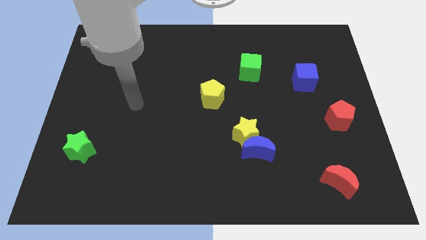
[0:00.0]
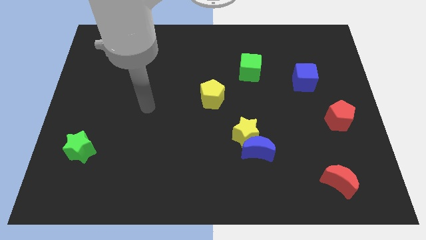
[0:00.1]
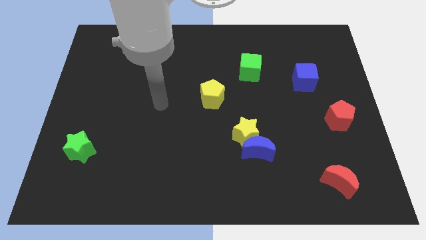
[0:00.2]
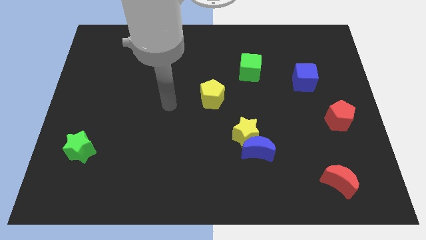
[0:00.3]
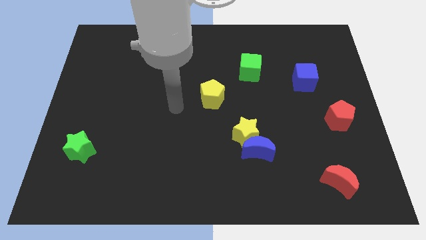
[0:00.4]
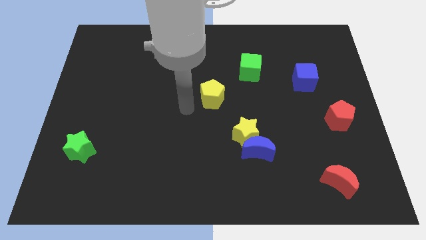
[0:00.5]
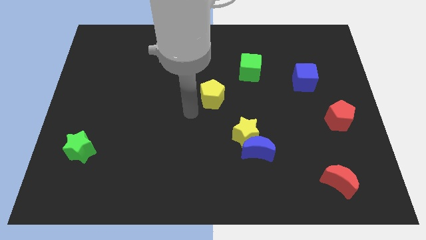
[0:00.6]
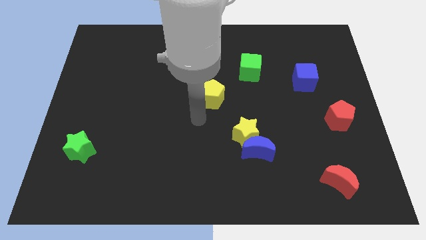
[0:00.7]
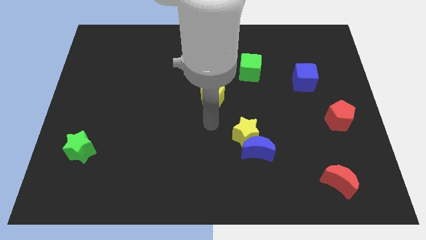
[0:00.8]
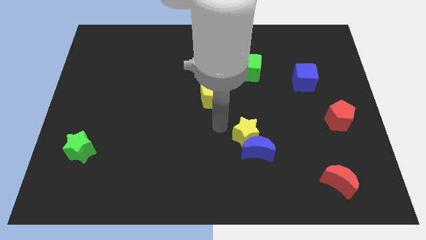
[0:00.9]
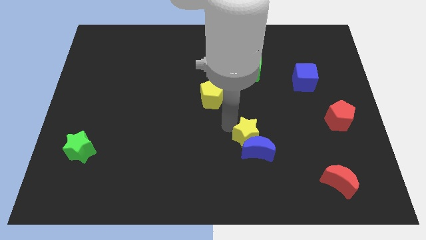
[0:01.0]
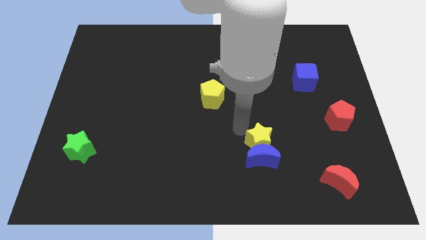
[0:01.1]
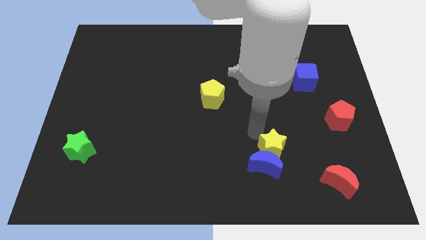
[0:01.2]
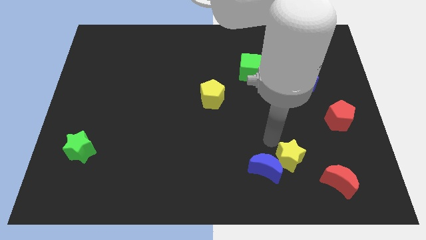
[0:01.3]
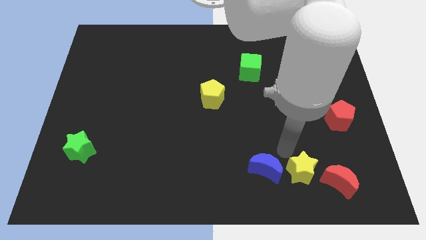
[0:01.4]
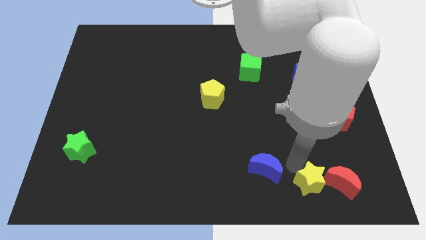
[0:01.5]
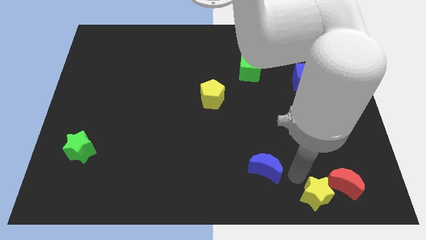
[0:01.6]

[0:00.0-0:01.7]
move the blue moon away from the yellow star

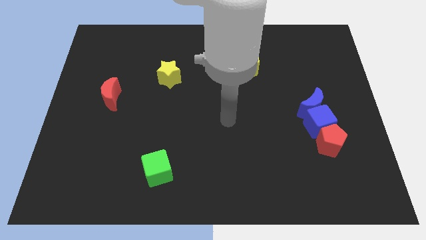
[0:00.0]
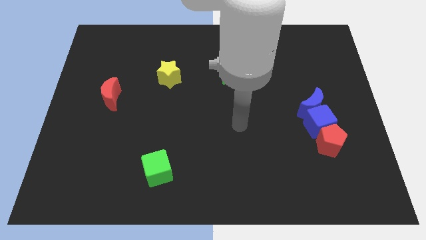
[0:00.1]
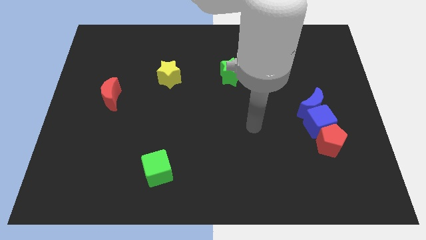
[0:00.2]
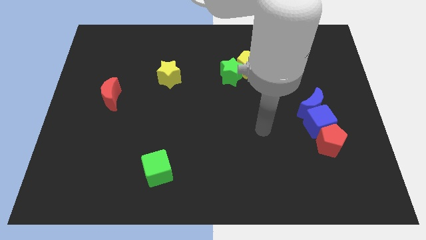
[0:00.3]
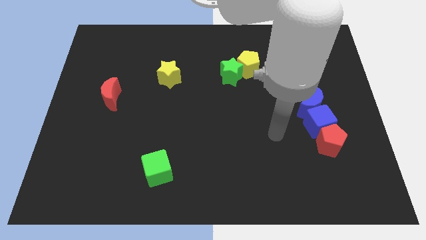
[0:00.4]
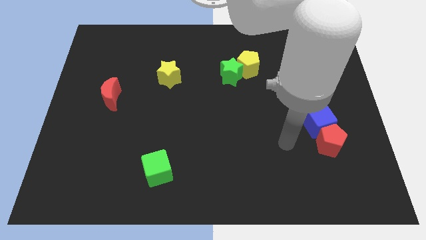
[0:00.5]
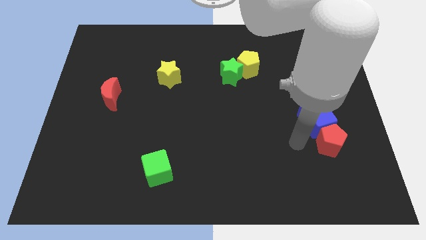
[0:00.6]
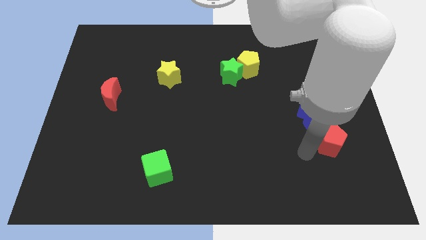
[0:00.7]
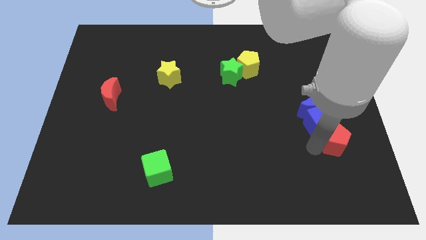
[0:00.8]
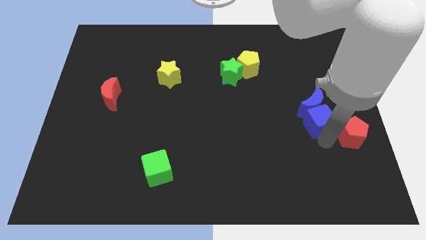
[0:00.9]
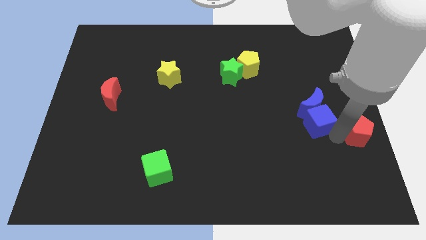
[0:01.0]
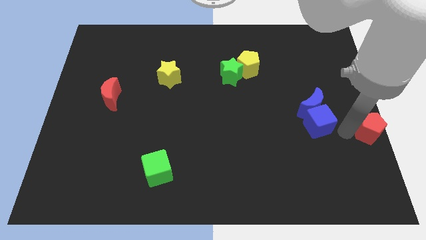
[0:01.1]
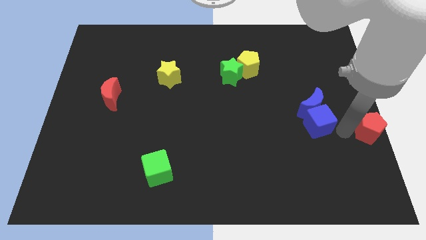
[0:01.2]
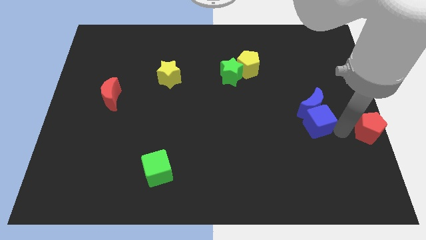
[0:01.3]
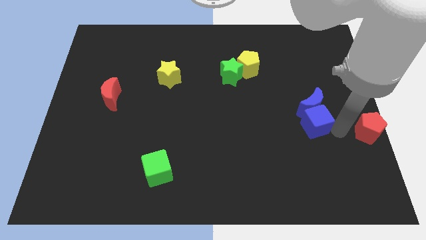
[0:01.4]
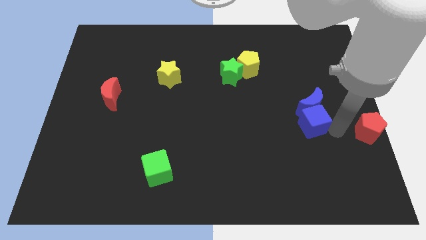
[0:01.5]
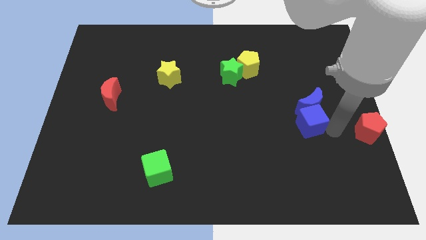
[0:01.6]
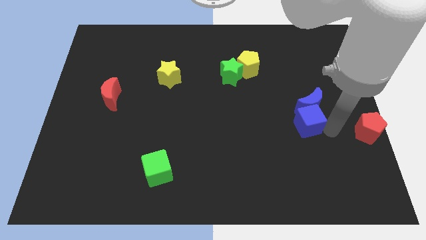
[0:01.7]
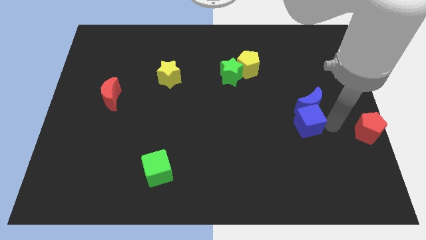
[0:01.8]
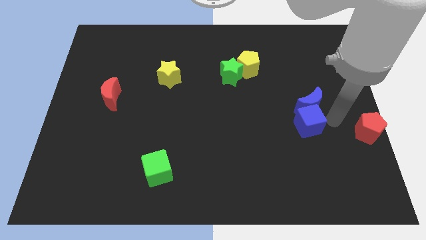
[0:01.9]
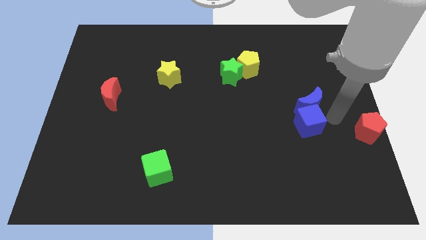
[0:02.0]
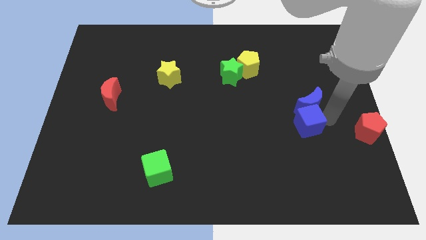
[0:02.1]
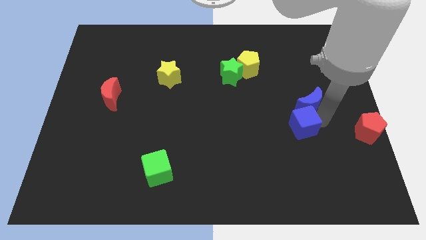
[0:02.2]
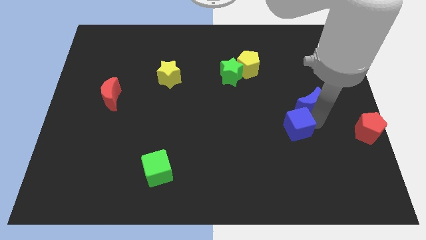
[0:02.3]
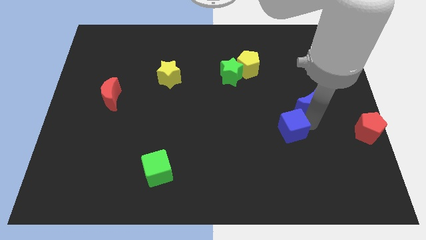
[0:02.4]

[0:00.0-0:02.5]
move the blue cube away from the blue moon and red pentagon

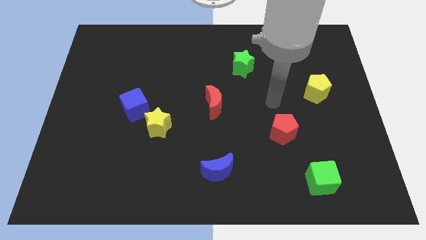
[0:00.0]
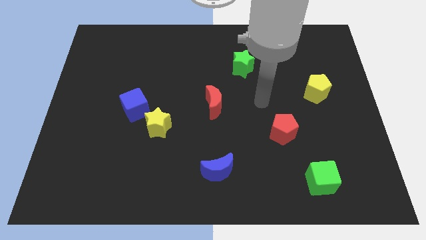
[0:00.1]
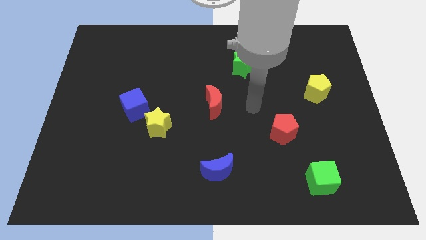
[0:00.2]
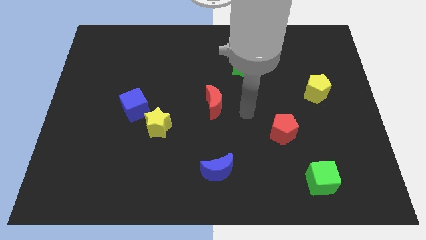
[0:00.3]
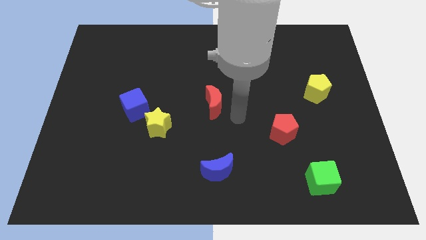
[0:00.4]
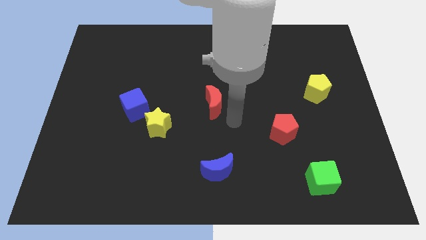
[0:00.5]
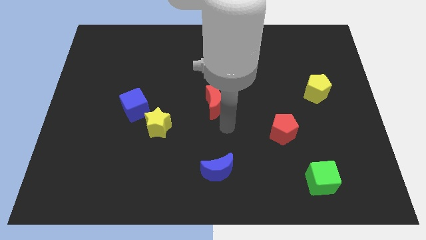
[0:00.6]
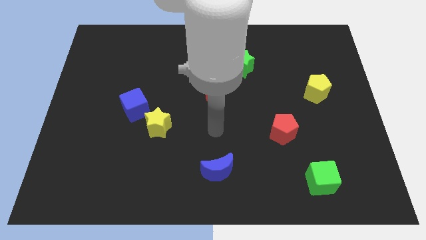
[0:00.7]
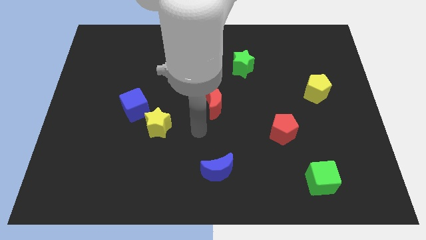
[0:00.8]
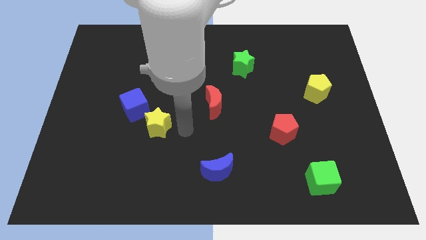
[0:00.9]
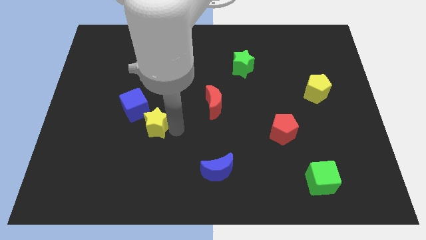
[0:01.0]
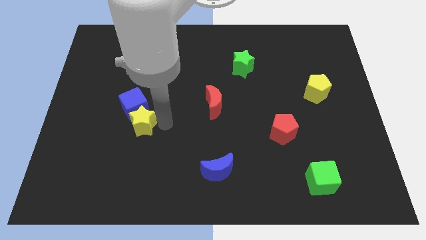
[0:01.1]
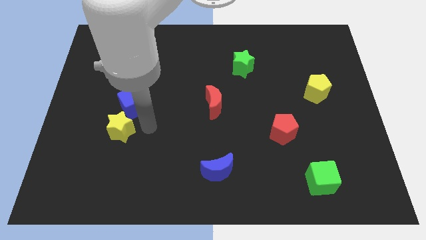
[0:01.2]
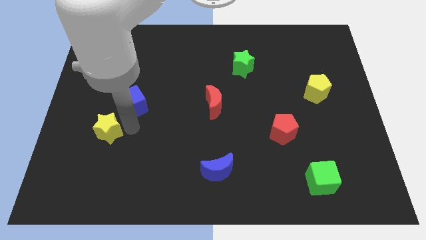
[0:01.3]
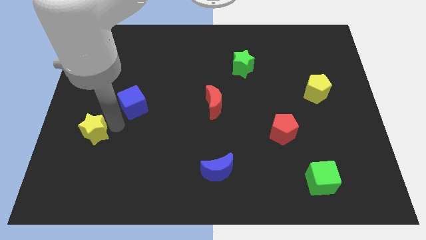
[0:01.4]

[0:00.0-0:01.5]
move the blue cube away from the yellow star

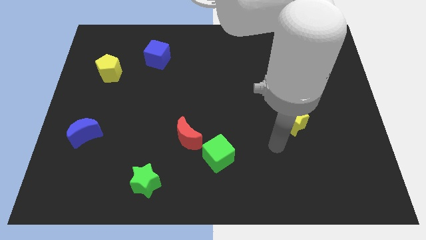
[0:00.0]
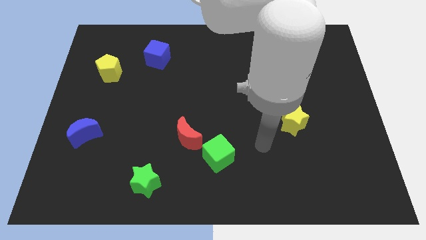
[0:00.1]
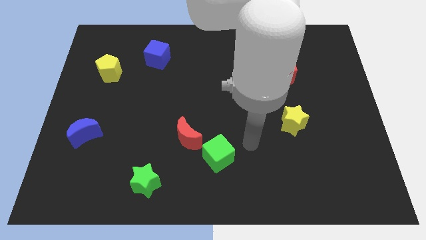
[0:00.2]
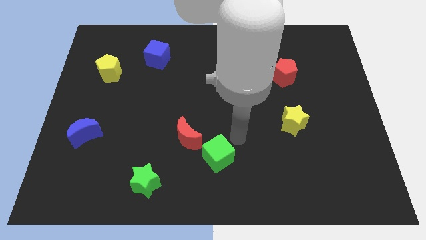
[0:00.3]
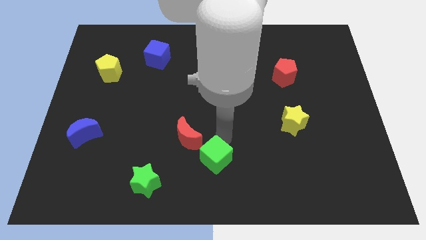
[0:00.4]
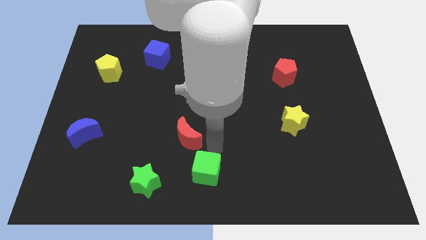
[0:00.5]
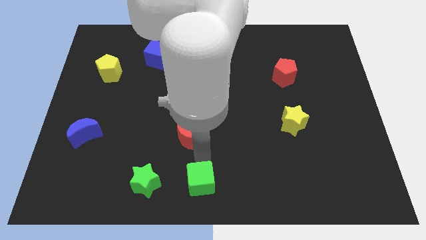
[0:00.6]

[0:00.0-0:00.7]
pull the red moon apart from the green cube

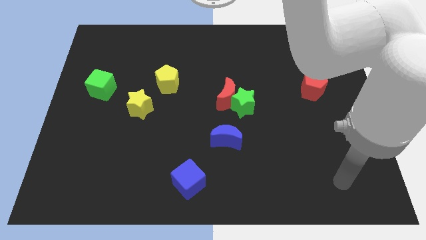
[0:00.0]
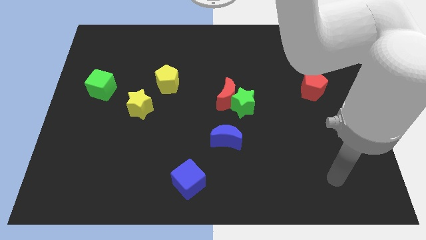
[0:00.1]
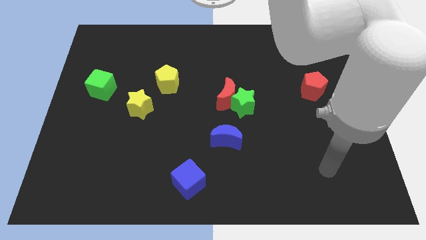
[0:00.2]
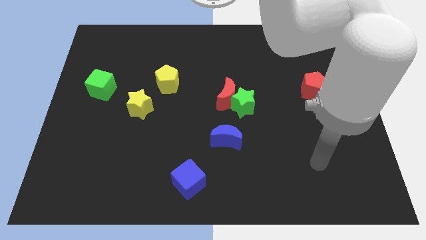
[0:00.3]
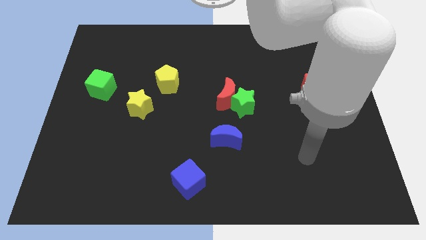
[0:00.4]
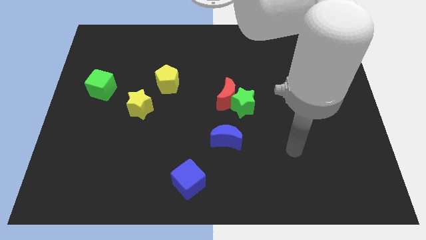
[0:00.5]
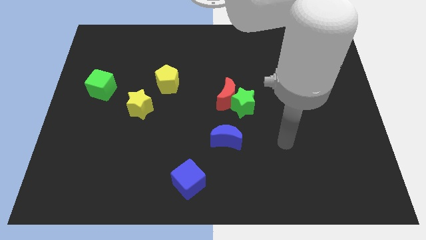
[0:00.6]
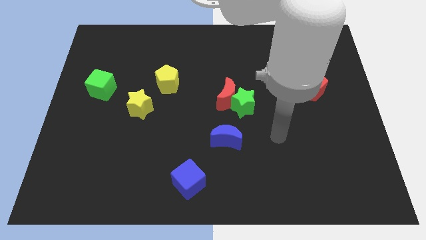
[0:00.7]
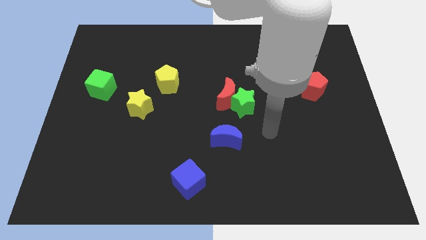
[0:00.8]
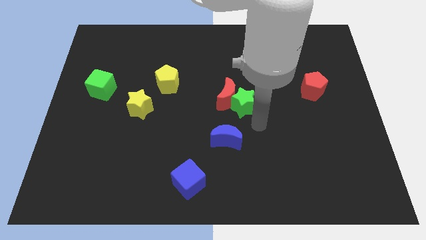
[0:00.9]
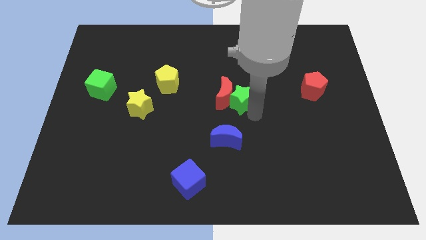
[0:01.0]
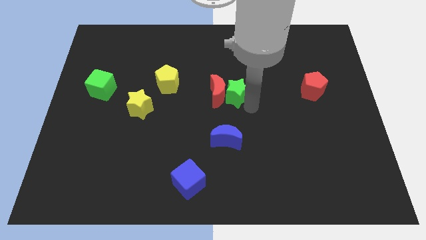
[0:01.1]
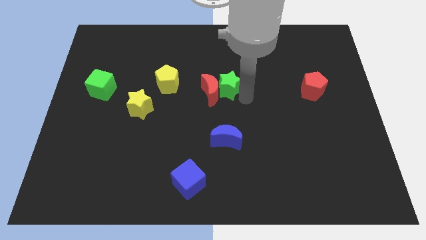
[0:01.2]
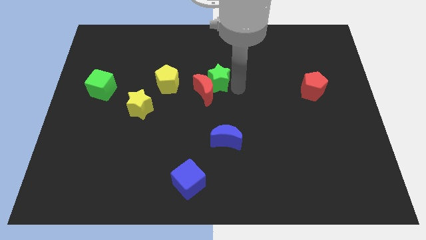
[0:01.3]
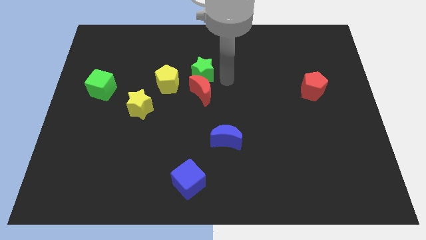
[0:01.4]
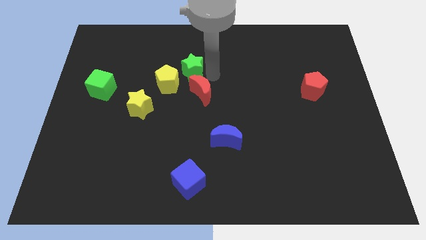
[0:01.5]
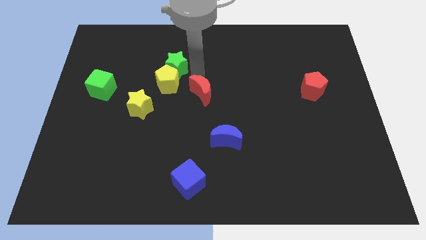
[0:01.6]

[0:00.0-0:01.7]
separate the red moon from the green star

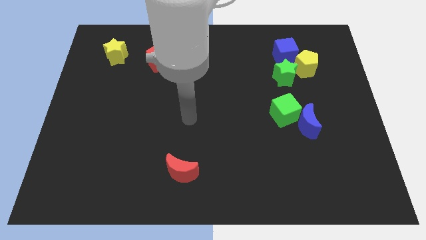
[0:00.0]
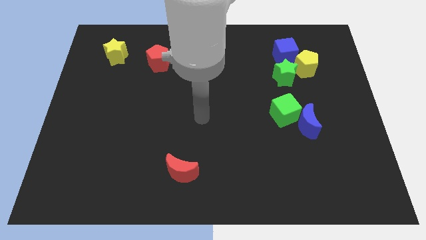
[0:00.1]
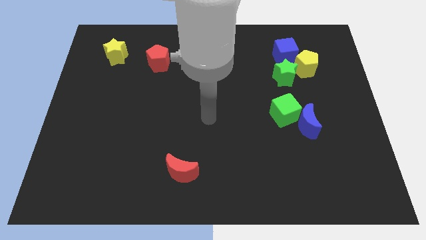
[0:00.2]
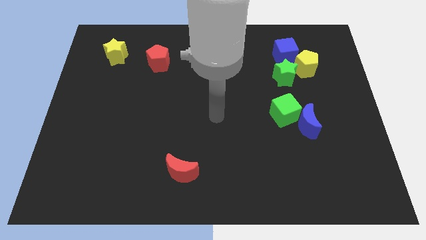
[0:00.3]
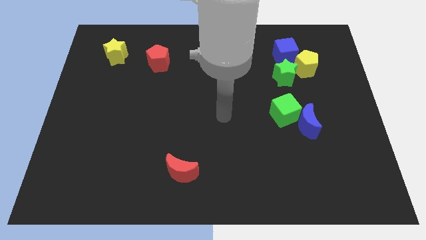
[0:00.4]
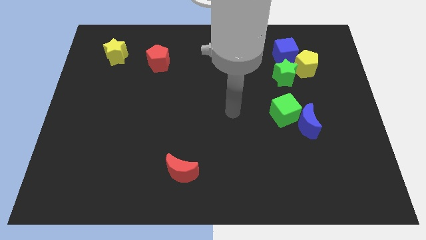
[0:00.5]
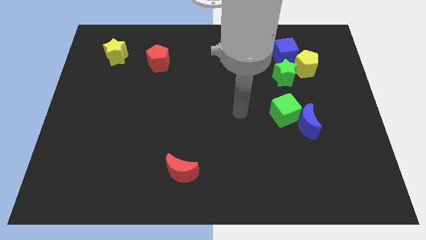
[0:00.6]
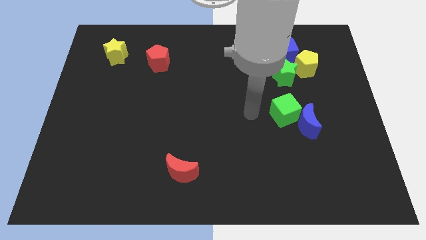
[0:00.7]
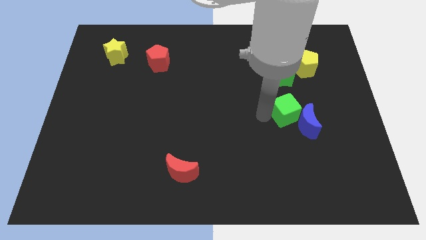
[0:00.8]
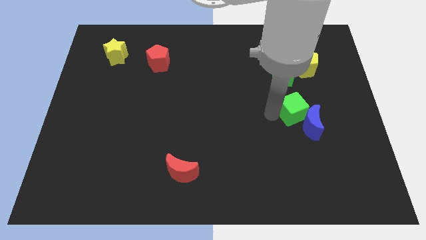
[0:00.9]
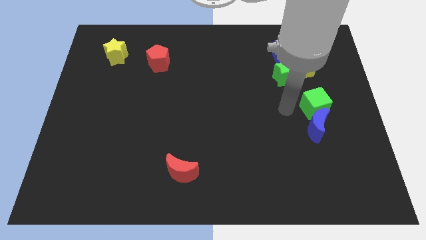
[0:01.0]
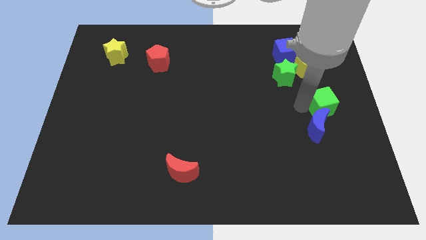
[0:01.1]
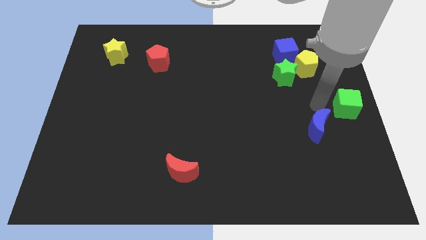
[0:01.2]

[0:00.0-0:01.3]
move the blue moon away from the green cube
